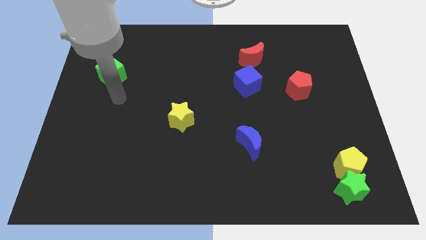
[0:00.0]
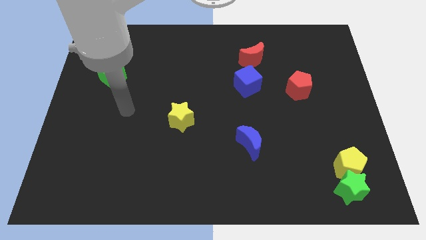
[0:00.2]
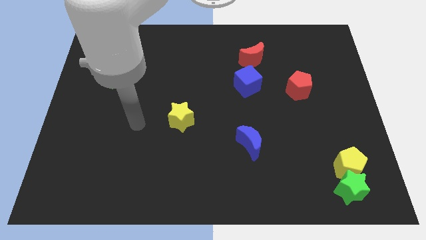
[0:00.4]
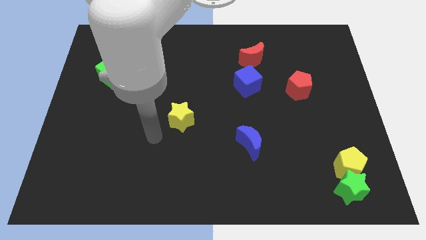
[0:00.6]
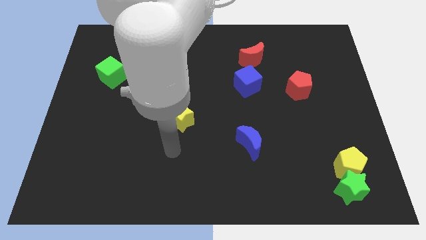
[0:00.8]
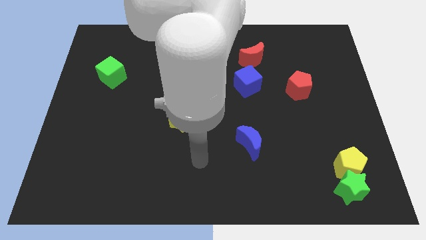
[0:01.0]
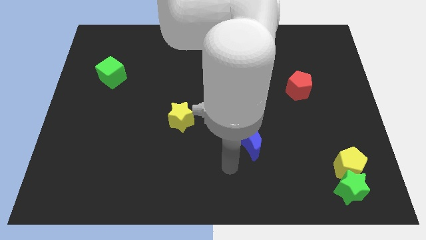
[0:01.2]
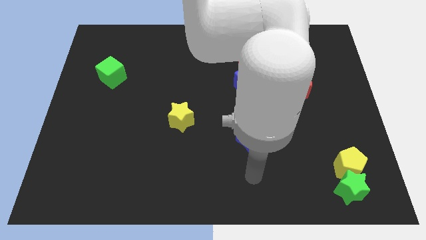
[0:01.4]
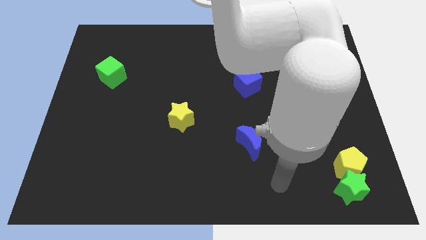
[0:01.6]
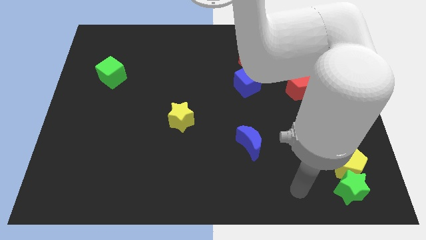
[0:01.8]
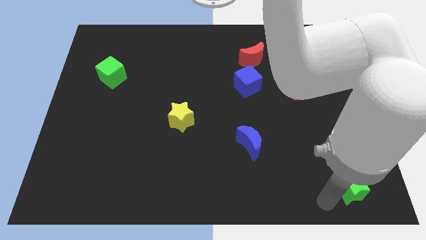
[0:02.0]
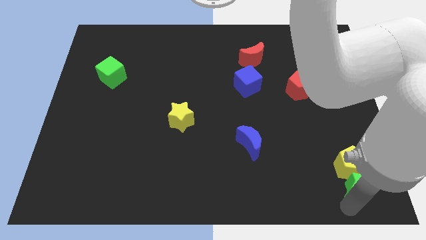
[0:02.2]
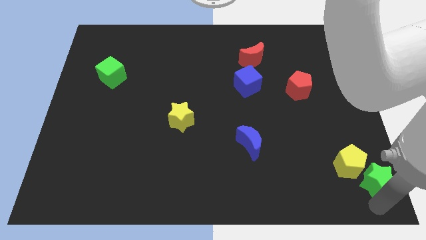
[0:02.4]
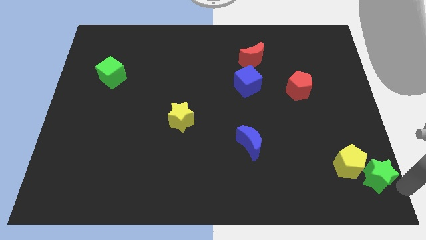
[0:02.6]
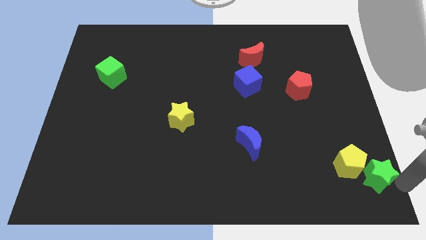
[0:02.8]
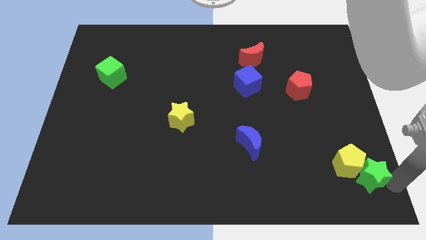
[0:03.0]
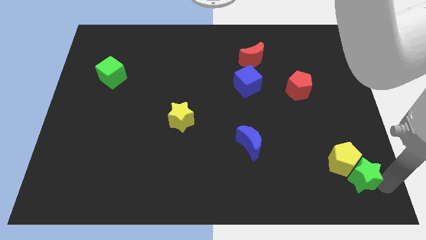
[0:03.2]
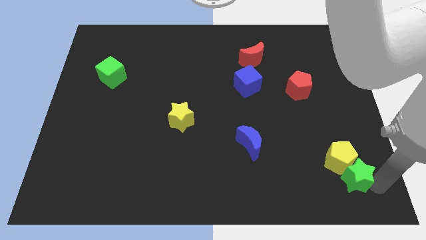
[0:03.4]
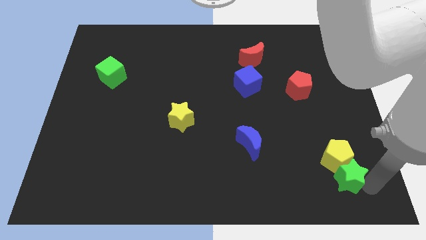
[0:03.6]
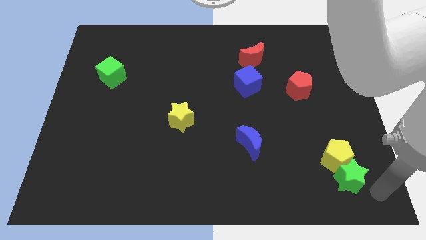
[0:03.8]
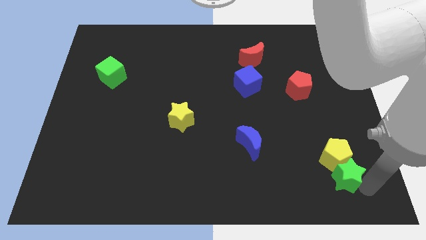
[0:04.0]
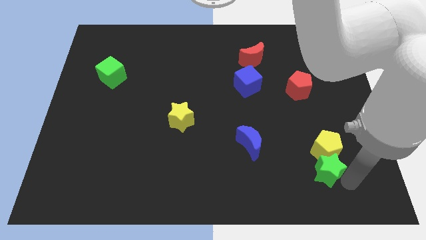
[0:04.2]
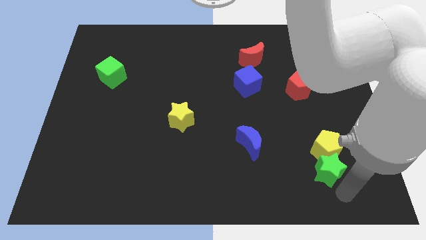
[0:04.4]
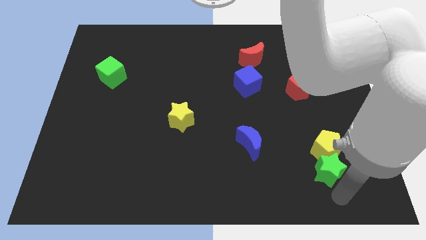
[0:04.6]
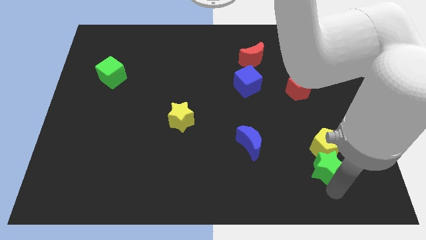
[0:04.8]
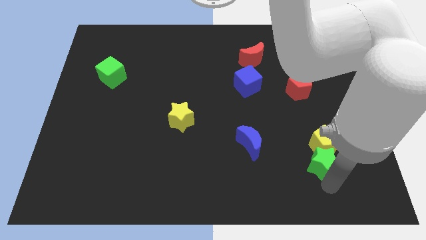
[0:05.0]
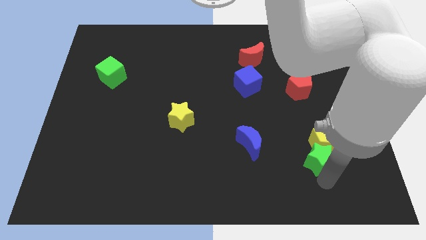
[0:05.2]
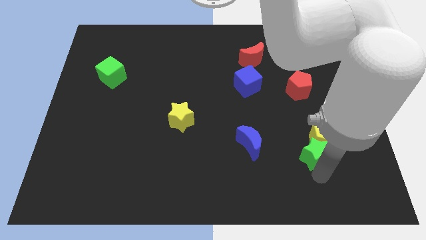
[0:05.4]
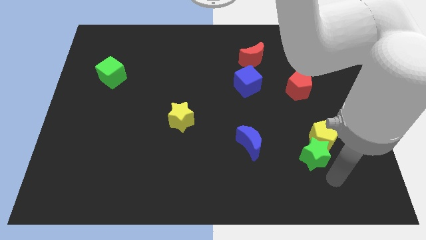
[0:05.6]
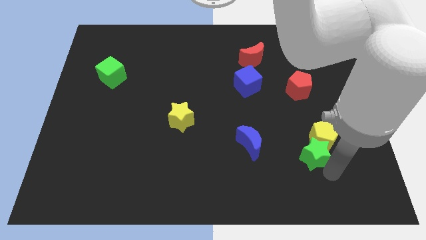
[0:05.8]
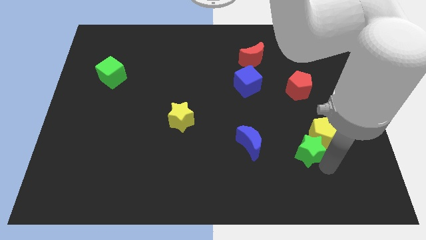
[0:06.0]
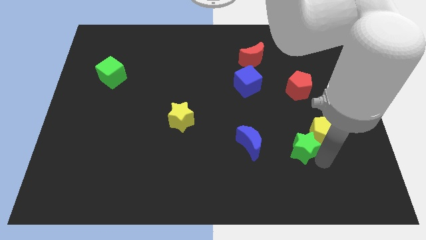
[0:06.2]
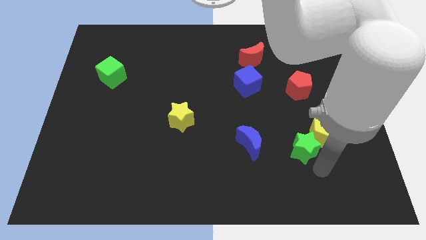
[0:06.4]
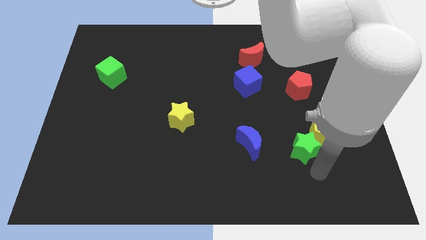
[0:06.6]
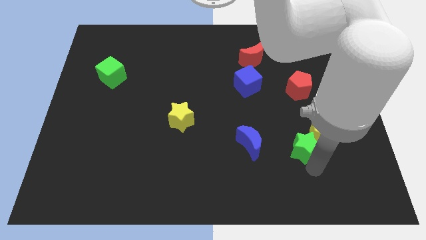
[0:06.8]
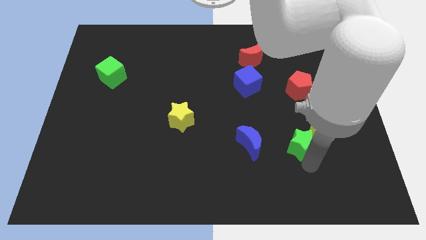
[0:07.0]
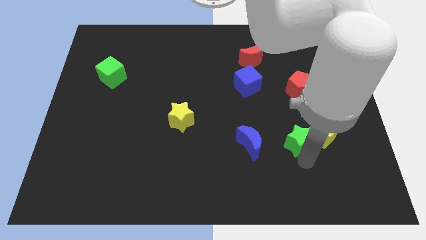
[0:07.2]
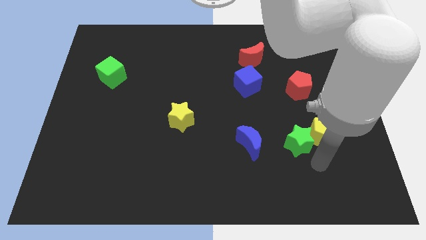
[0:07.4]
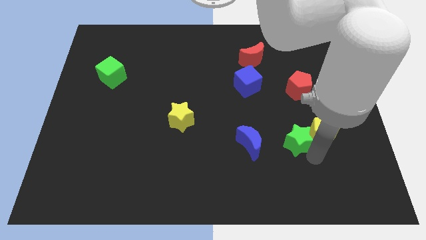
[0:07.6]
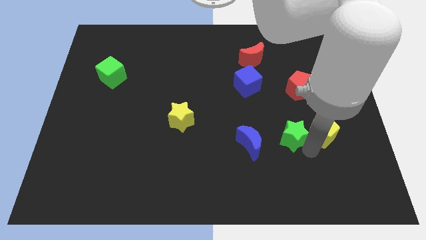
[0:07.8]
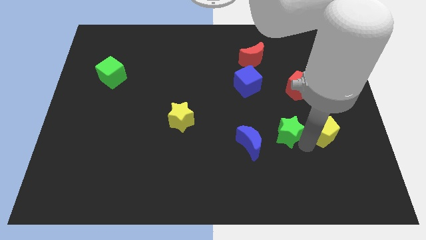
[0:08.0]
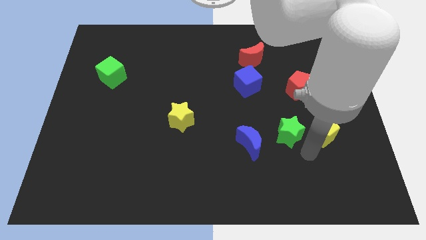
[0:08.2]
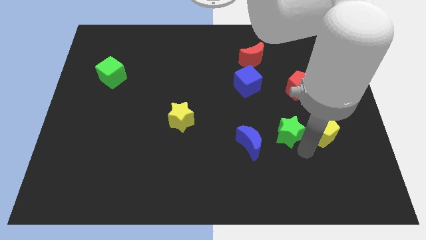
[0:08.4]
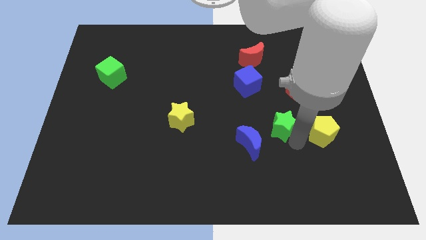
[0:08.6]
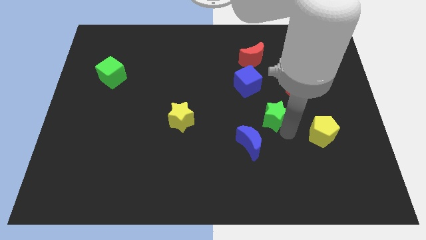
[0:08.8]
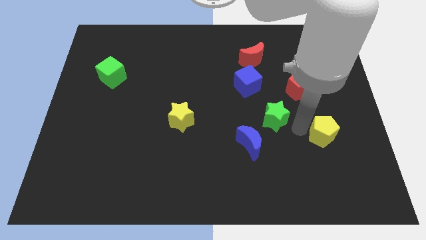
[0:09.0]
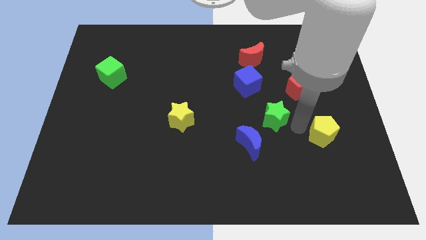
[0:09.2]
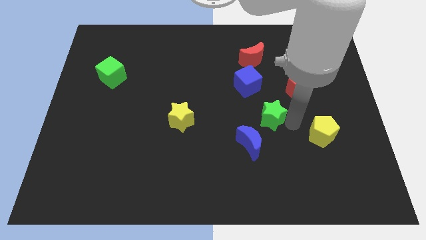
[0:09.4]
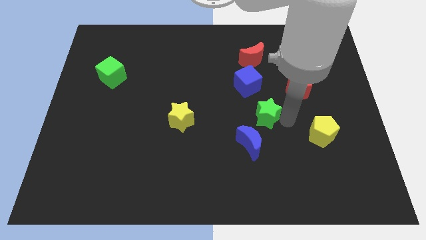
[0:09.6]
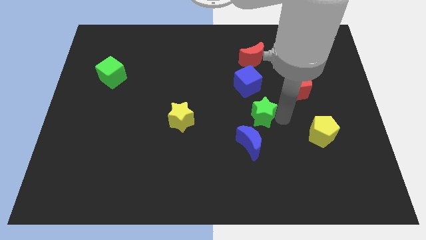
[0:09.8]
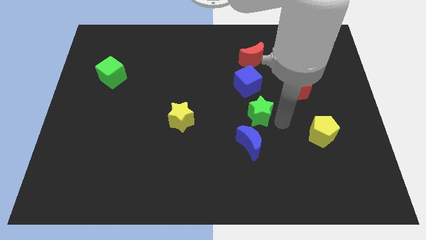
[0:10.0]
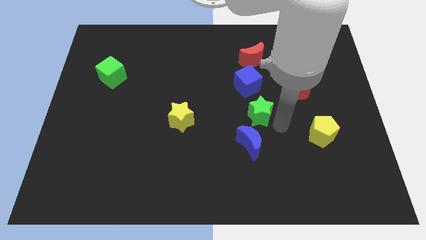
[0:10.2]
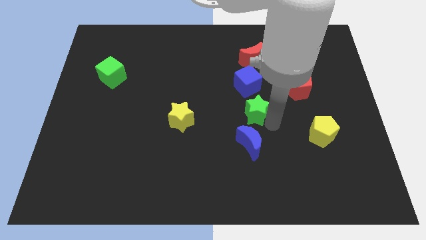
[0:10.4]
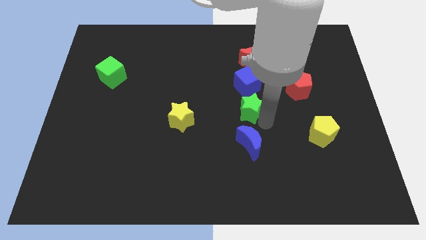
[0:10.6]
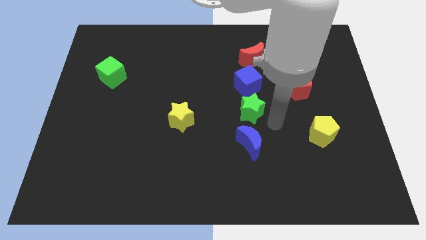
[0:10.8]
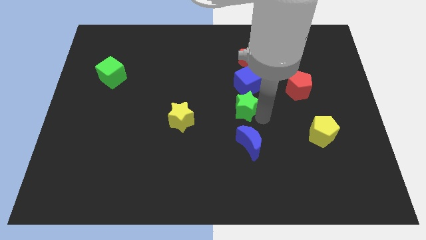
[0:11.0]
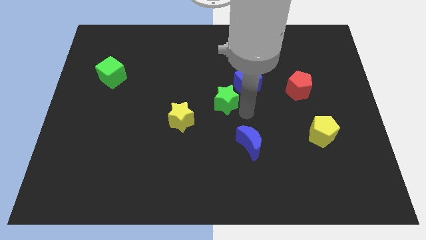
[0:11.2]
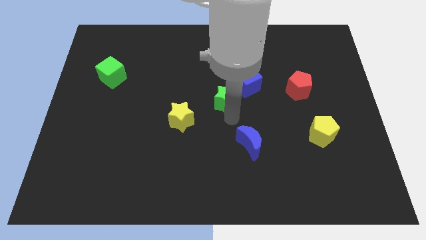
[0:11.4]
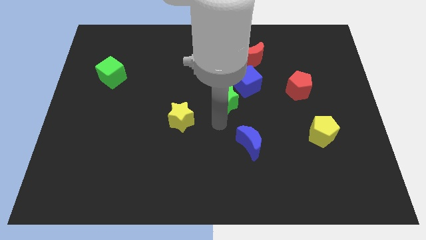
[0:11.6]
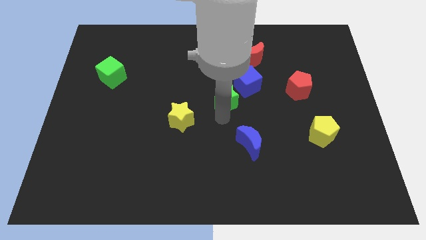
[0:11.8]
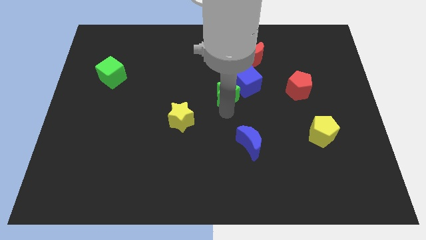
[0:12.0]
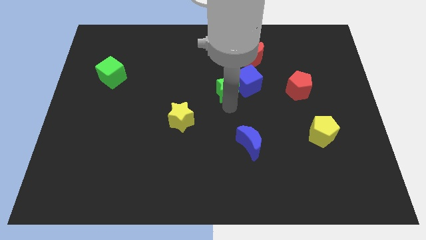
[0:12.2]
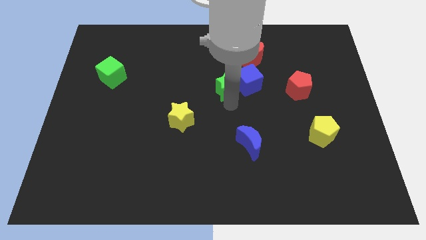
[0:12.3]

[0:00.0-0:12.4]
move the green star diagonally down and to the left of the red moon

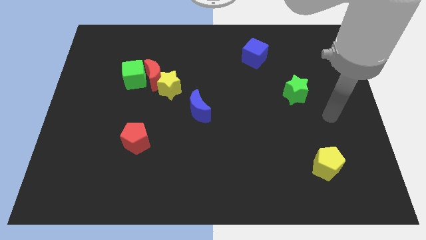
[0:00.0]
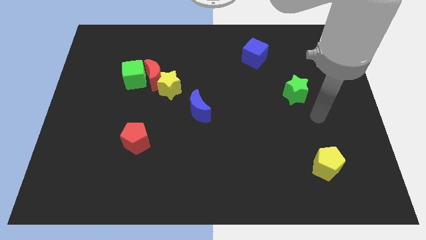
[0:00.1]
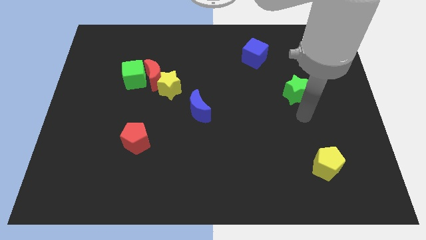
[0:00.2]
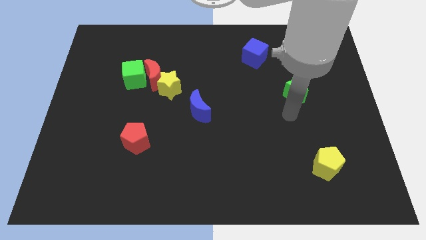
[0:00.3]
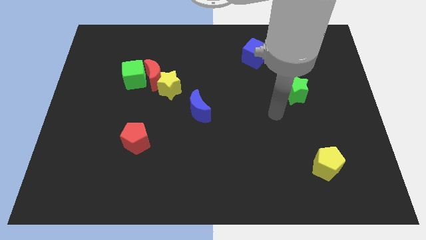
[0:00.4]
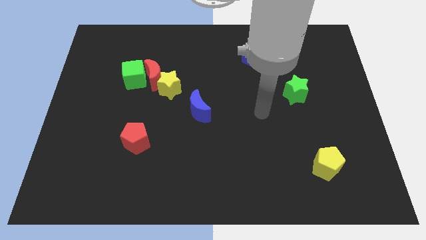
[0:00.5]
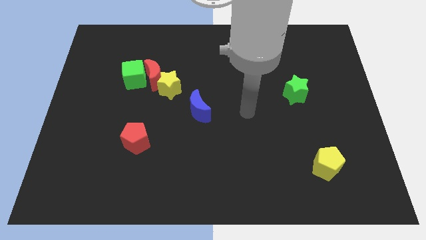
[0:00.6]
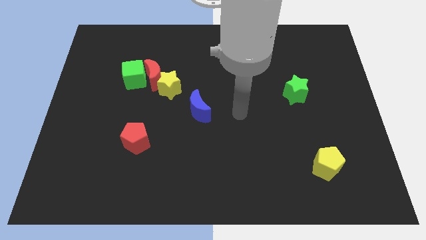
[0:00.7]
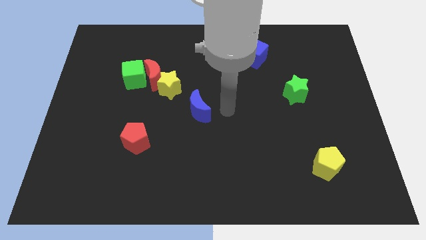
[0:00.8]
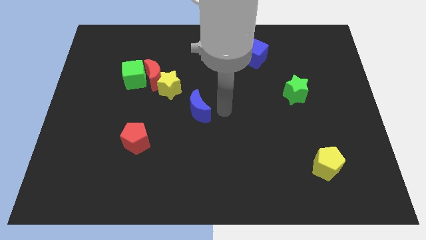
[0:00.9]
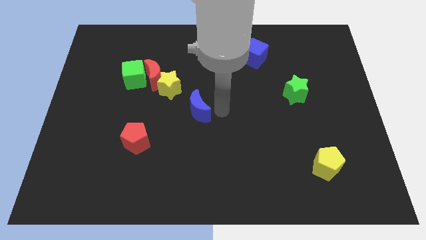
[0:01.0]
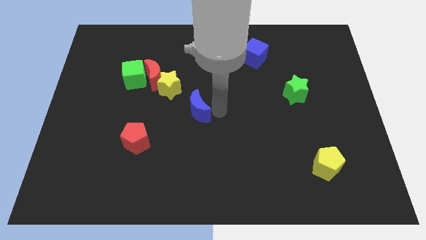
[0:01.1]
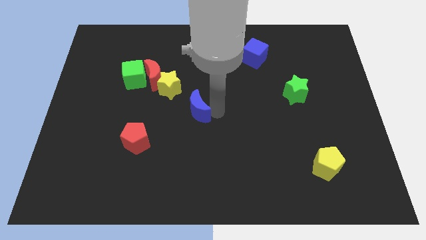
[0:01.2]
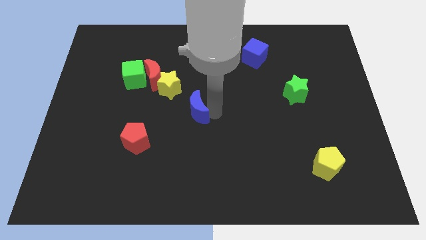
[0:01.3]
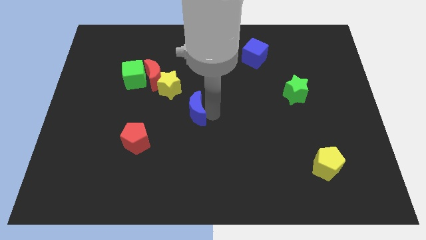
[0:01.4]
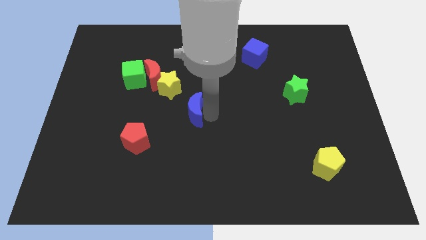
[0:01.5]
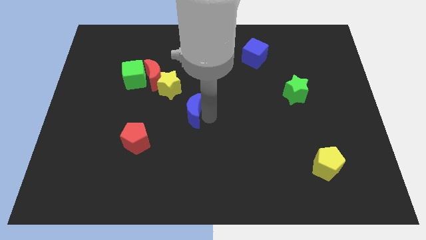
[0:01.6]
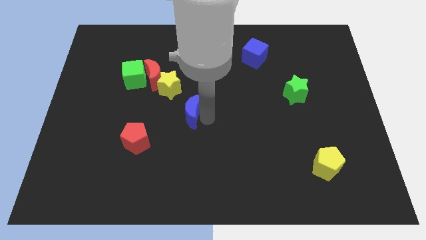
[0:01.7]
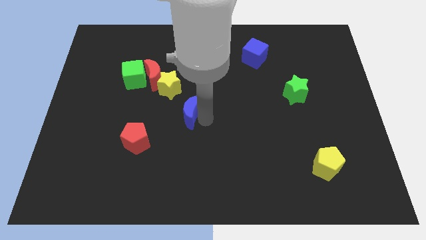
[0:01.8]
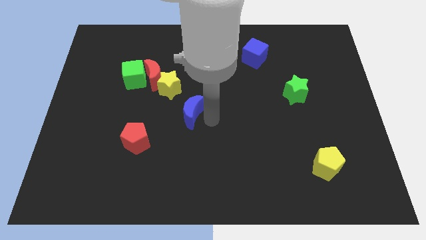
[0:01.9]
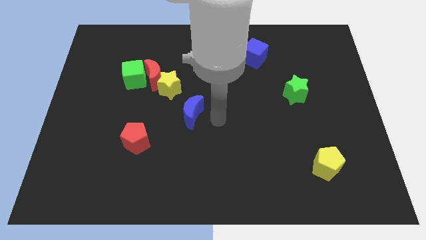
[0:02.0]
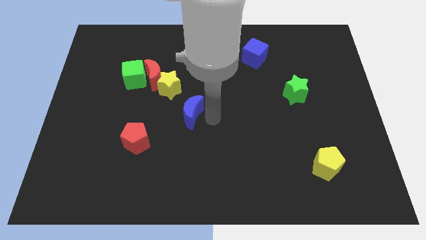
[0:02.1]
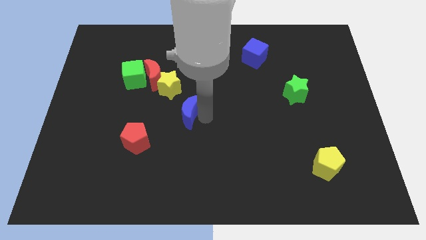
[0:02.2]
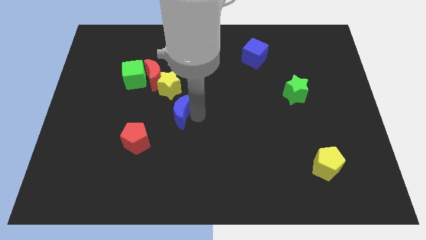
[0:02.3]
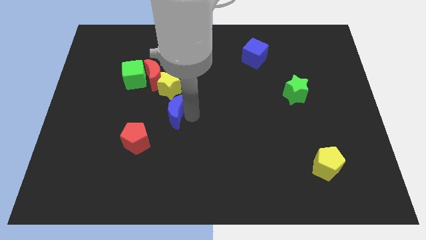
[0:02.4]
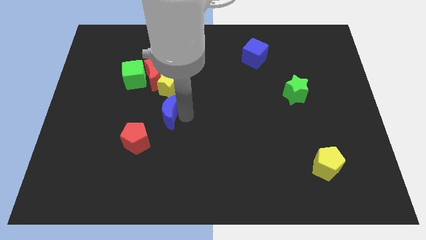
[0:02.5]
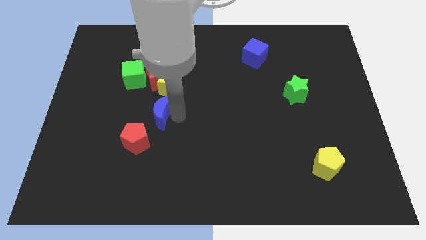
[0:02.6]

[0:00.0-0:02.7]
move the blue moon to the top of the red pentagon
